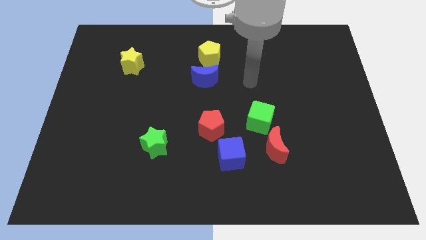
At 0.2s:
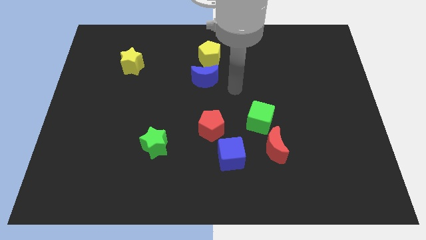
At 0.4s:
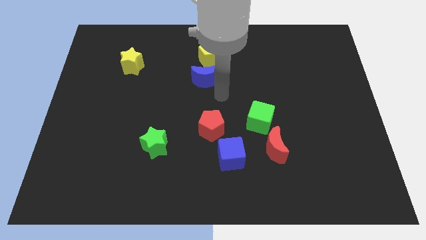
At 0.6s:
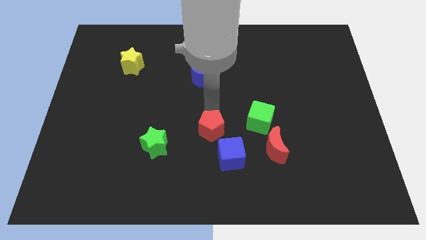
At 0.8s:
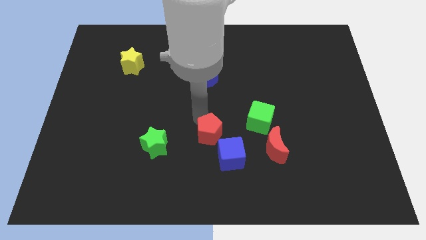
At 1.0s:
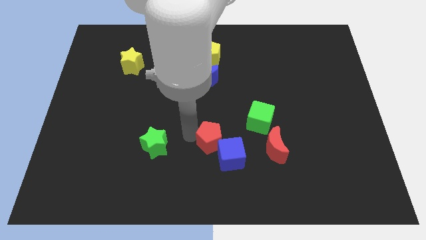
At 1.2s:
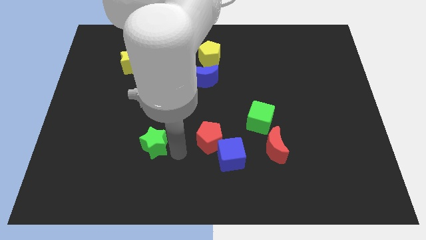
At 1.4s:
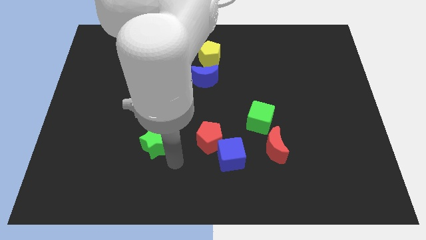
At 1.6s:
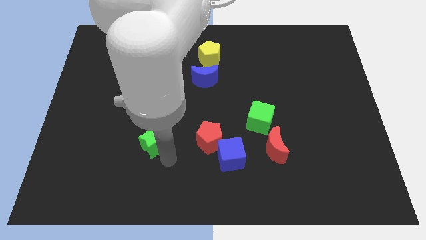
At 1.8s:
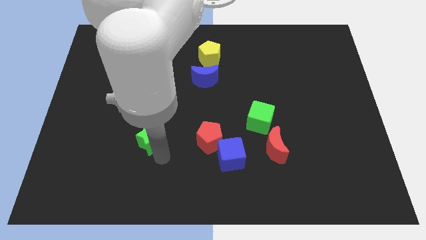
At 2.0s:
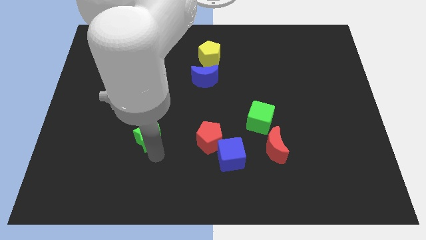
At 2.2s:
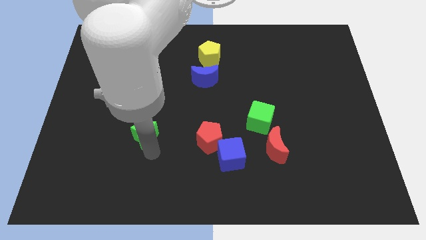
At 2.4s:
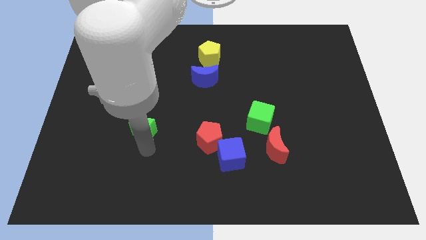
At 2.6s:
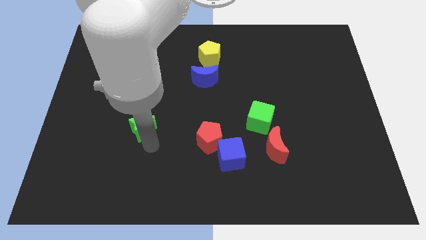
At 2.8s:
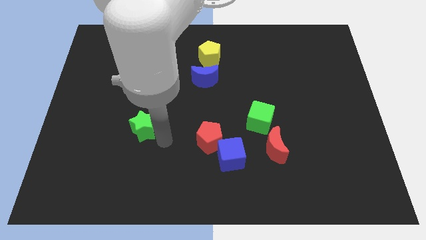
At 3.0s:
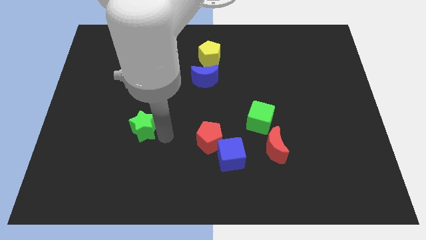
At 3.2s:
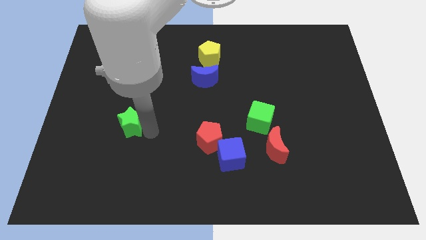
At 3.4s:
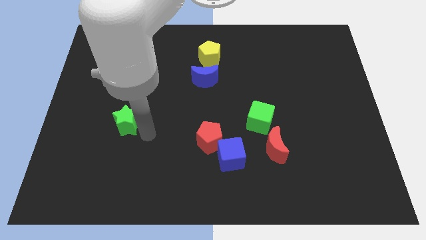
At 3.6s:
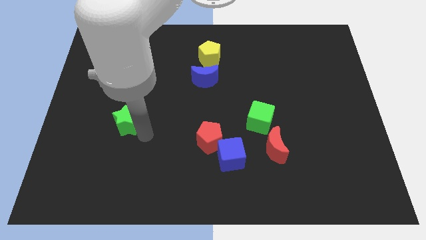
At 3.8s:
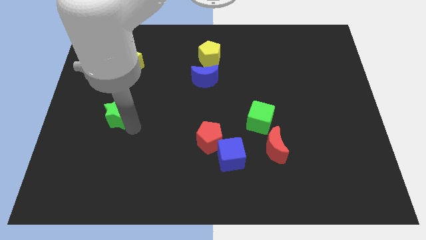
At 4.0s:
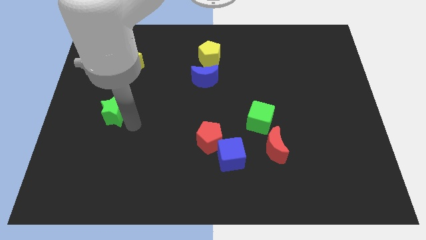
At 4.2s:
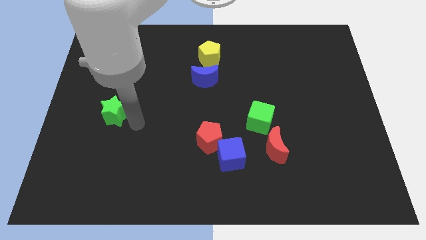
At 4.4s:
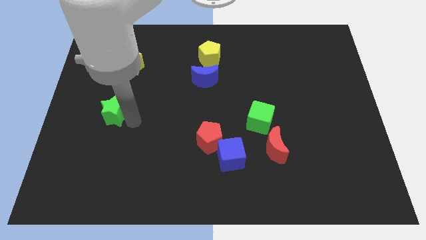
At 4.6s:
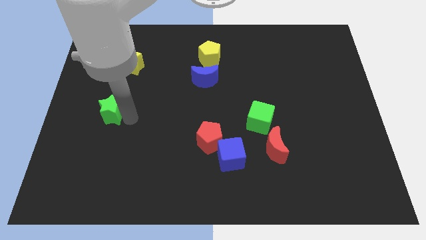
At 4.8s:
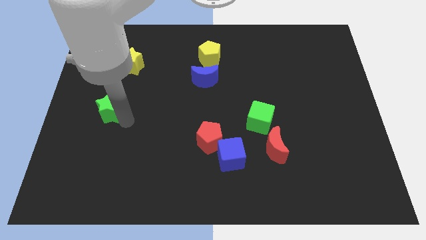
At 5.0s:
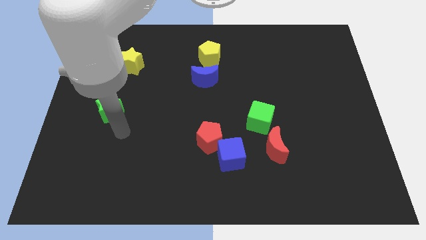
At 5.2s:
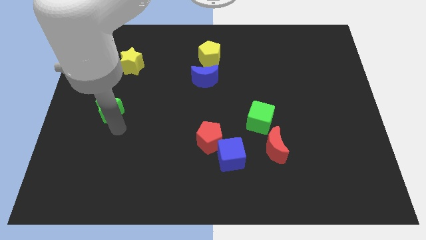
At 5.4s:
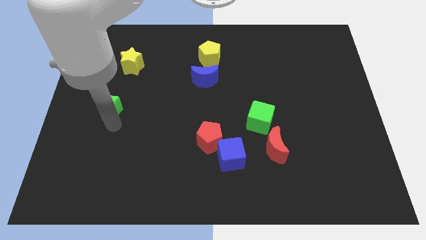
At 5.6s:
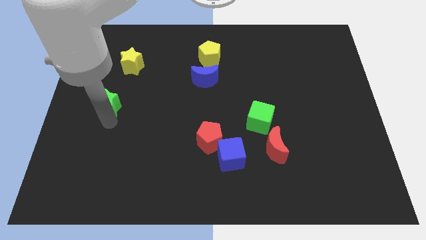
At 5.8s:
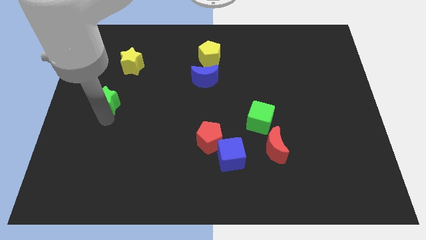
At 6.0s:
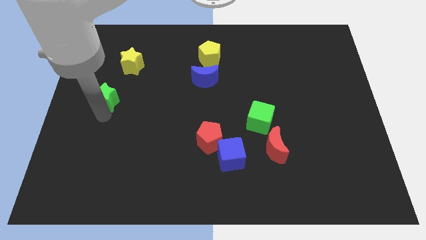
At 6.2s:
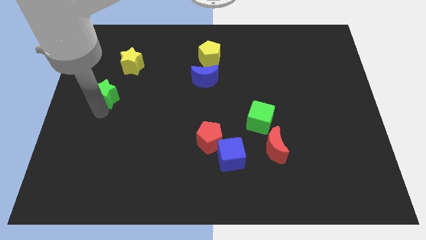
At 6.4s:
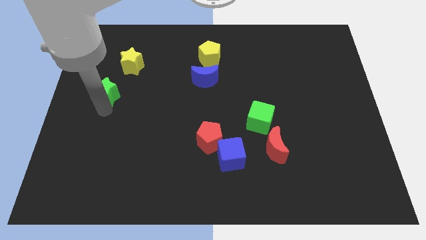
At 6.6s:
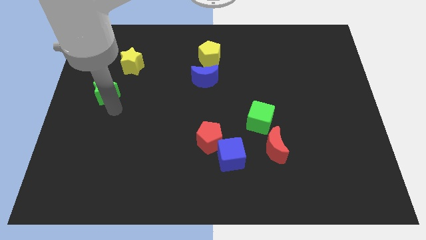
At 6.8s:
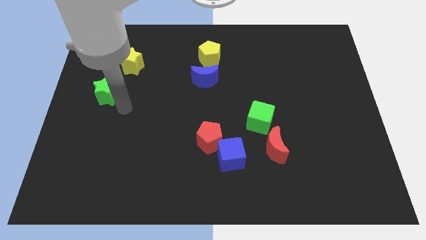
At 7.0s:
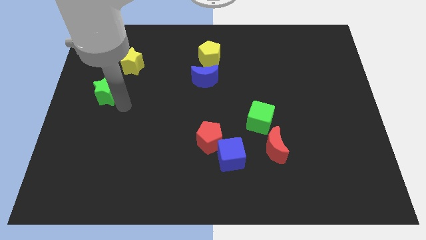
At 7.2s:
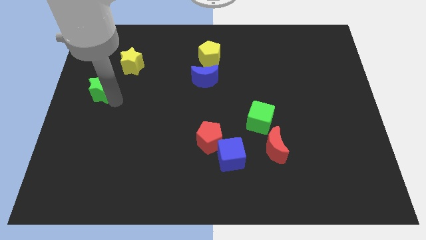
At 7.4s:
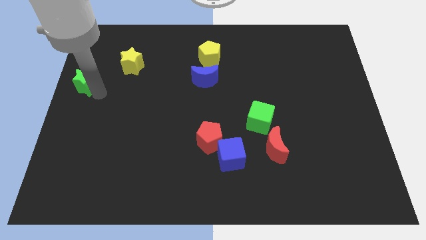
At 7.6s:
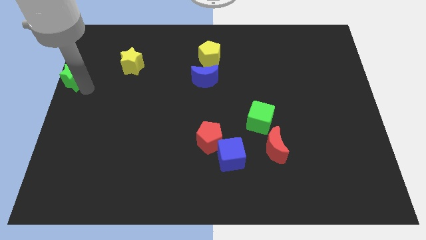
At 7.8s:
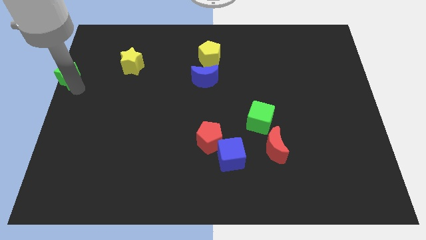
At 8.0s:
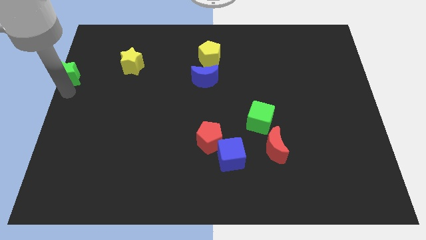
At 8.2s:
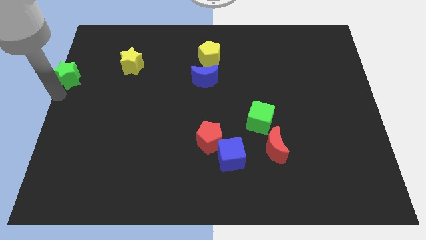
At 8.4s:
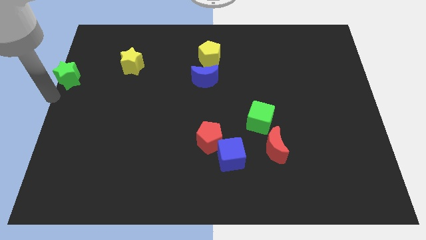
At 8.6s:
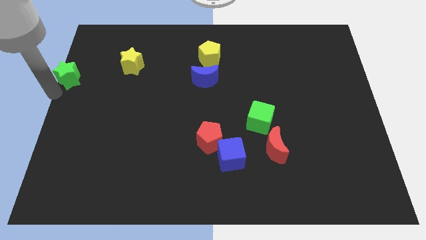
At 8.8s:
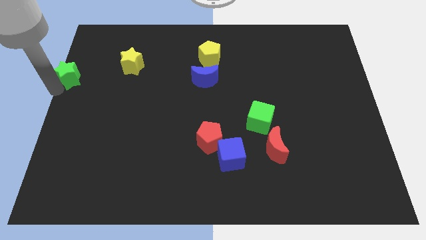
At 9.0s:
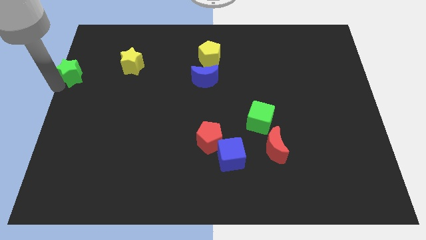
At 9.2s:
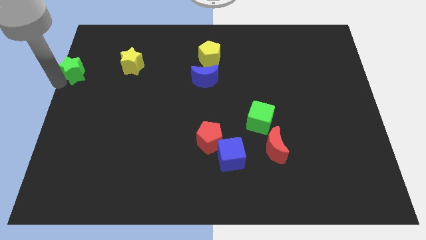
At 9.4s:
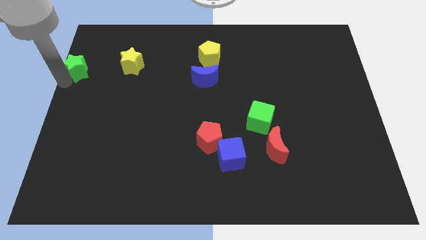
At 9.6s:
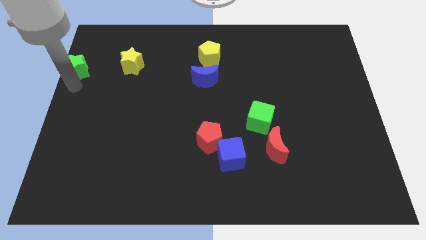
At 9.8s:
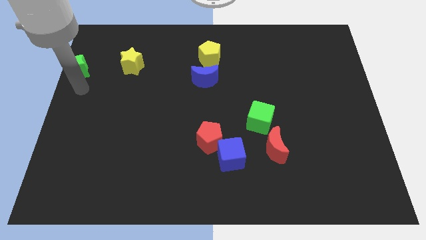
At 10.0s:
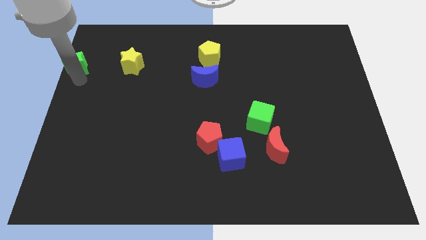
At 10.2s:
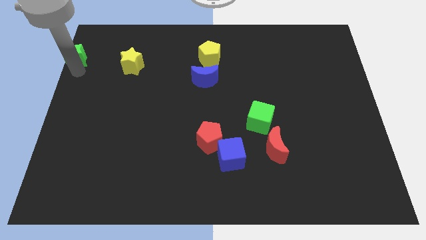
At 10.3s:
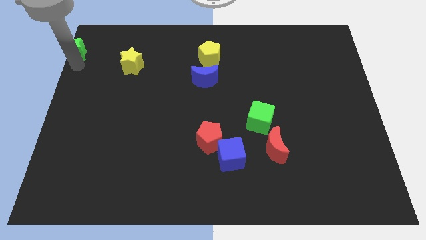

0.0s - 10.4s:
slide the green star to the top left of the board
